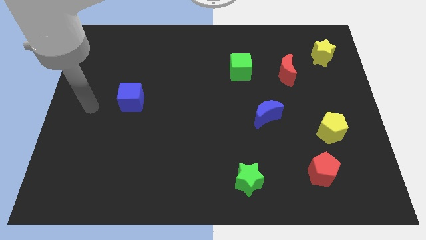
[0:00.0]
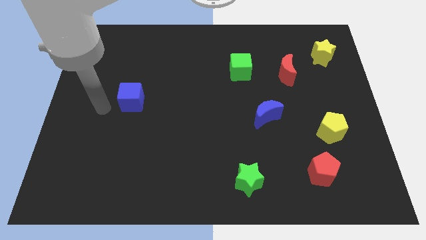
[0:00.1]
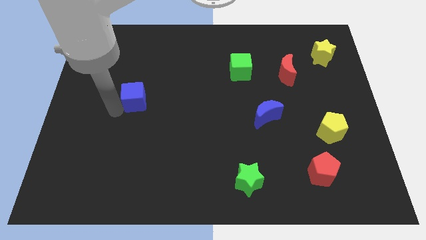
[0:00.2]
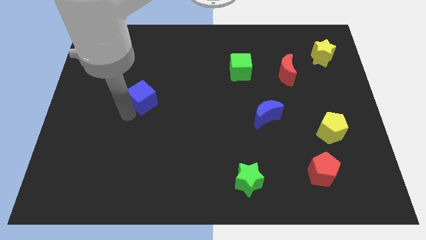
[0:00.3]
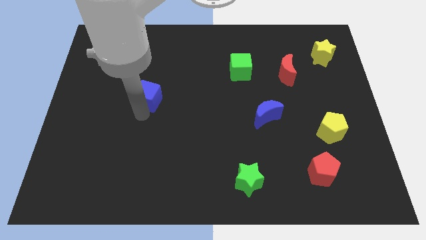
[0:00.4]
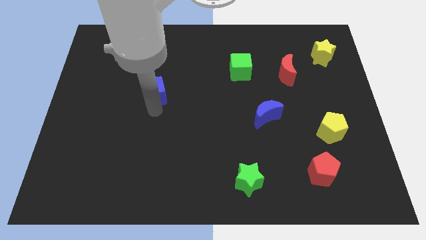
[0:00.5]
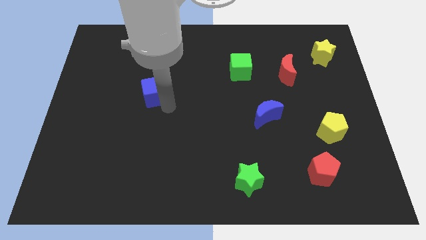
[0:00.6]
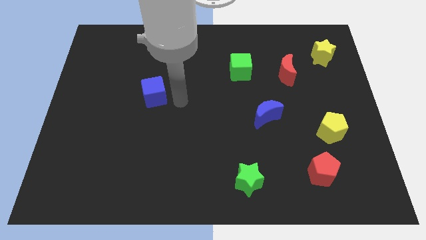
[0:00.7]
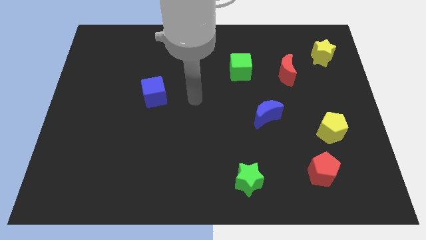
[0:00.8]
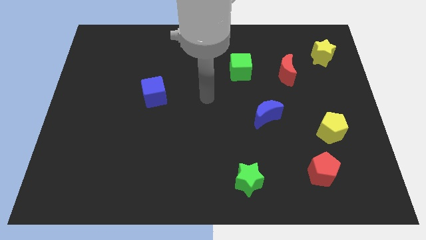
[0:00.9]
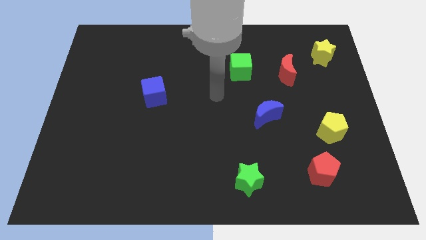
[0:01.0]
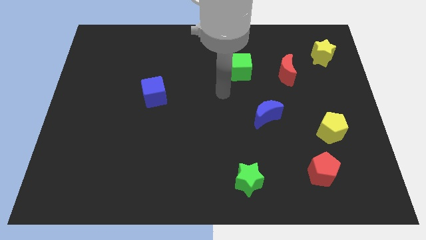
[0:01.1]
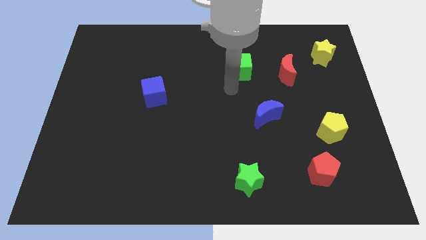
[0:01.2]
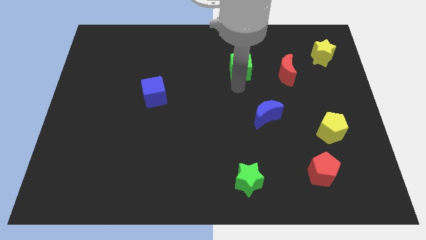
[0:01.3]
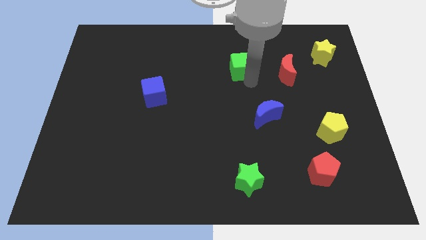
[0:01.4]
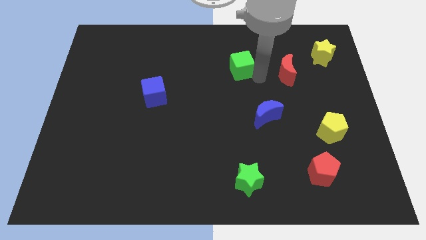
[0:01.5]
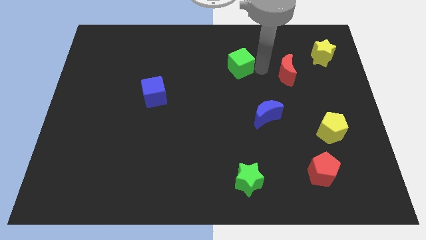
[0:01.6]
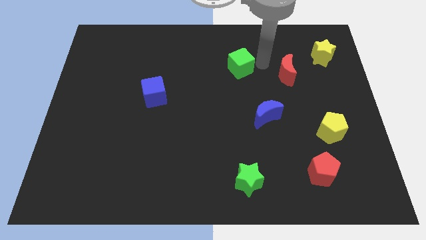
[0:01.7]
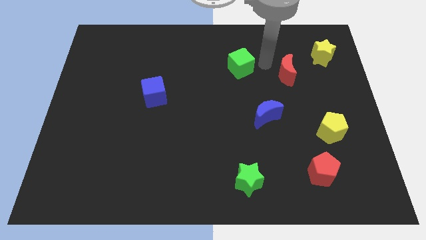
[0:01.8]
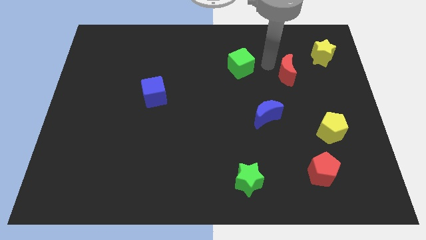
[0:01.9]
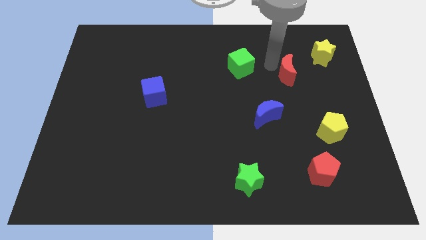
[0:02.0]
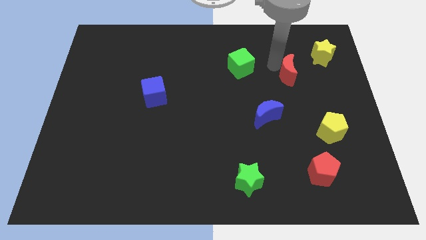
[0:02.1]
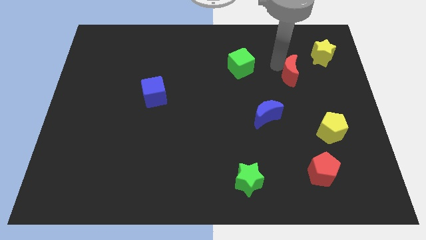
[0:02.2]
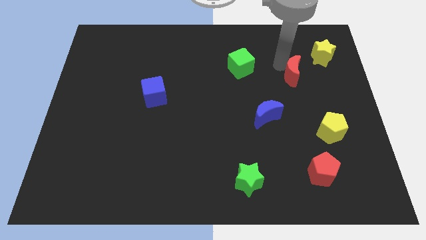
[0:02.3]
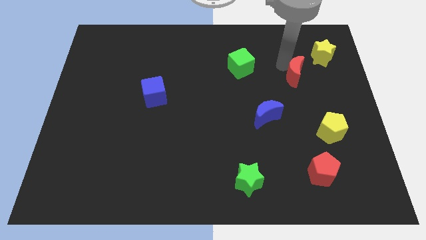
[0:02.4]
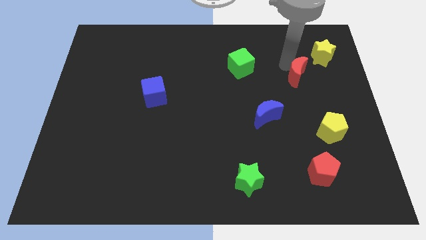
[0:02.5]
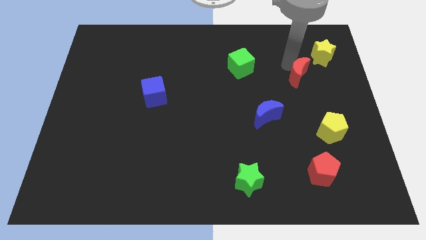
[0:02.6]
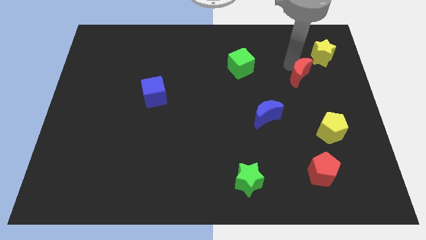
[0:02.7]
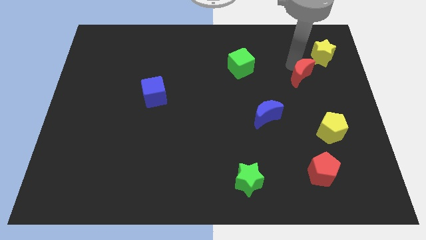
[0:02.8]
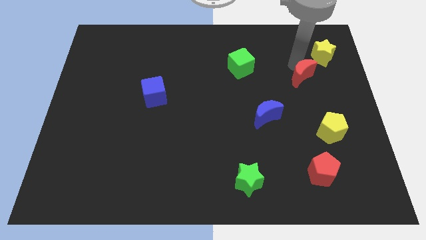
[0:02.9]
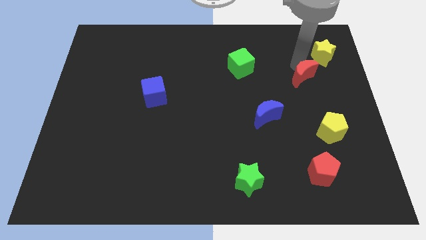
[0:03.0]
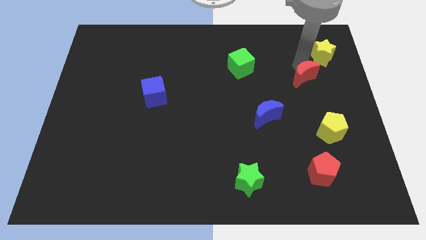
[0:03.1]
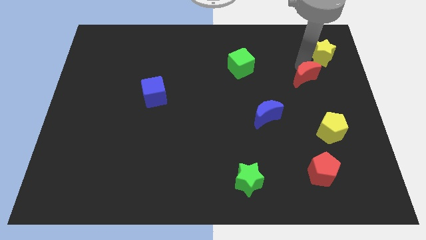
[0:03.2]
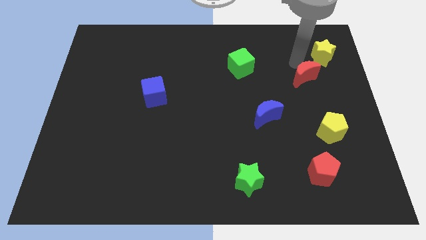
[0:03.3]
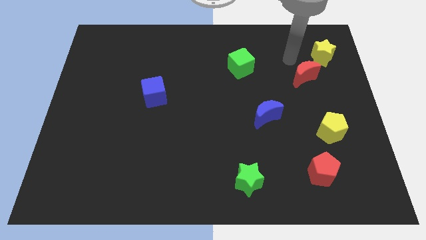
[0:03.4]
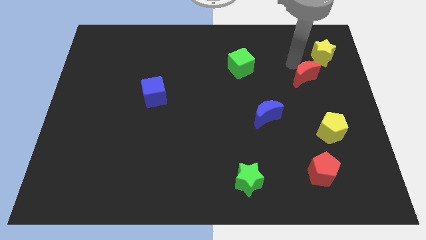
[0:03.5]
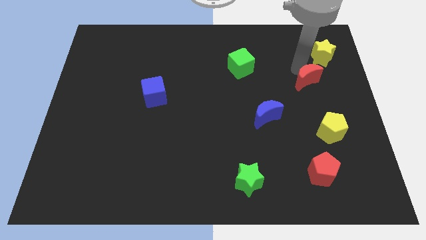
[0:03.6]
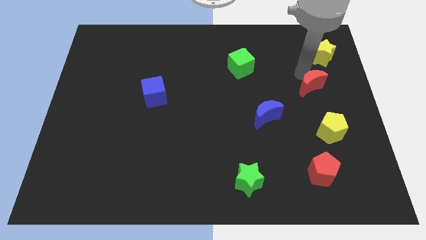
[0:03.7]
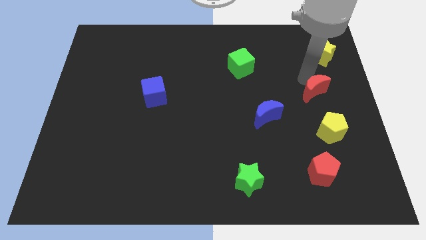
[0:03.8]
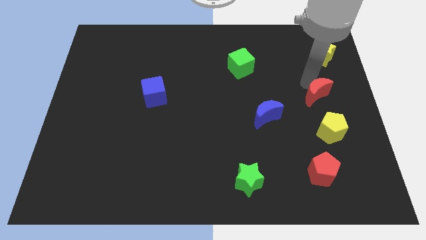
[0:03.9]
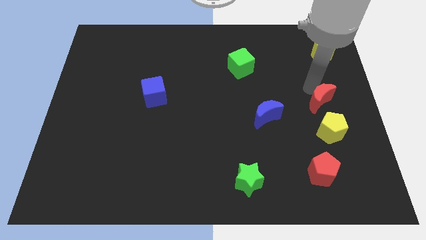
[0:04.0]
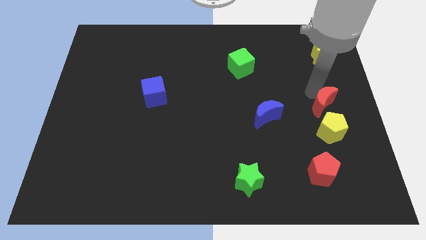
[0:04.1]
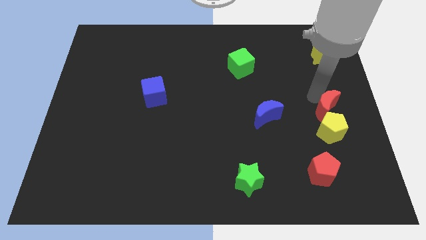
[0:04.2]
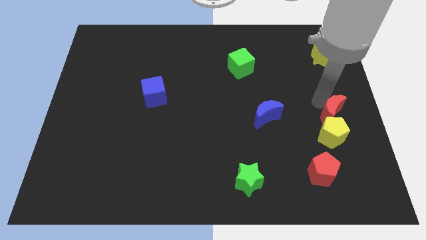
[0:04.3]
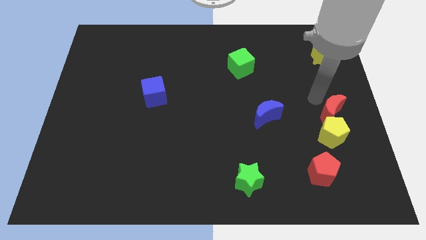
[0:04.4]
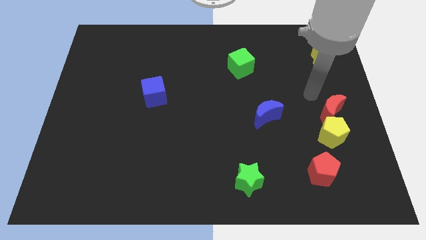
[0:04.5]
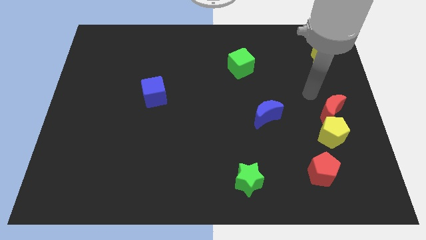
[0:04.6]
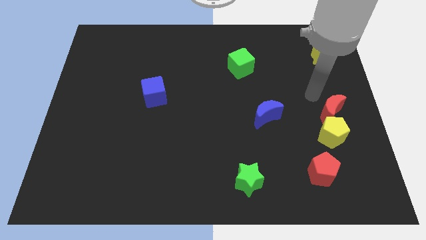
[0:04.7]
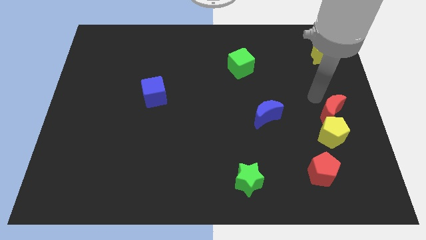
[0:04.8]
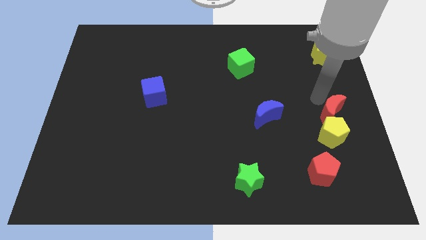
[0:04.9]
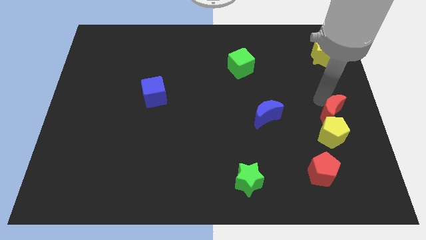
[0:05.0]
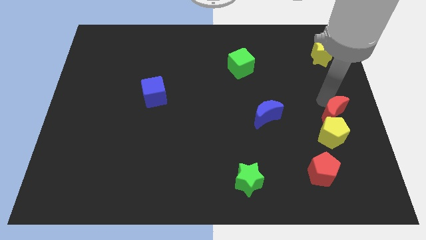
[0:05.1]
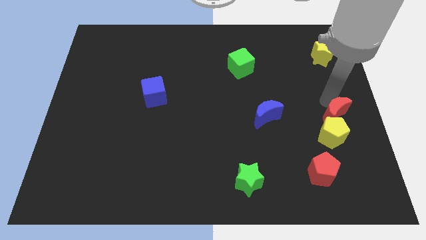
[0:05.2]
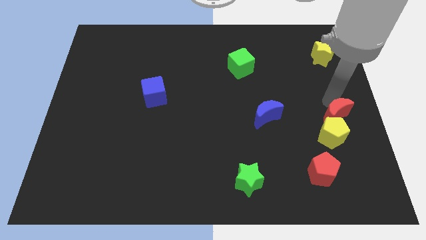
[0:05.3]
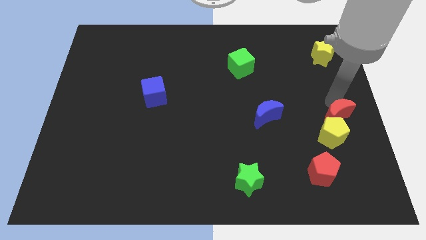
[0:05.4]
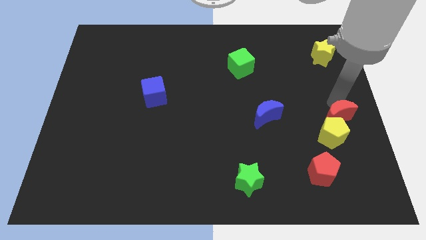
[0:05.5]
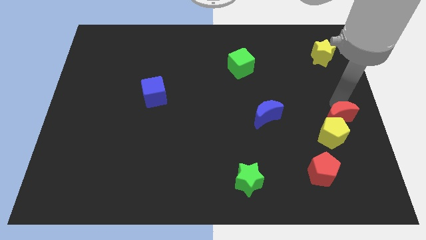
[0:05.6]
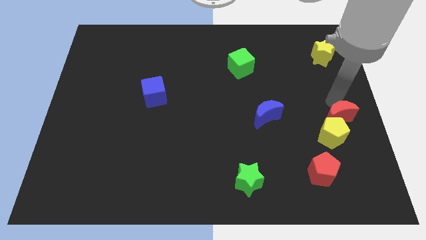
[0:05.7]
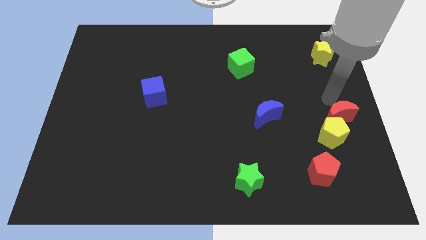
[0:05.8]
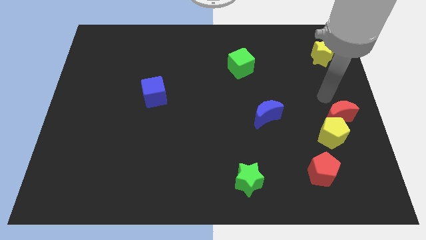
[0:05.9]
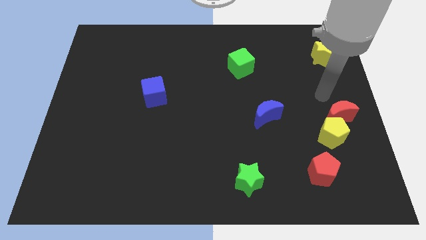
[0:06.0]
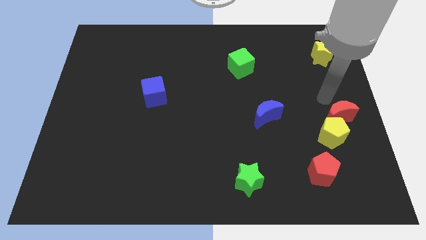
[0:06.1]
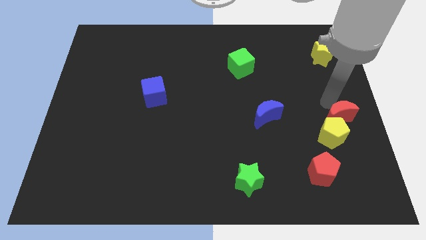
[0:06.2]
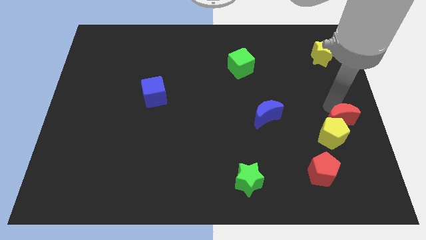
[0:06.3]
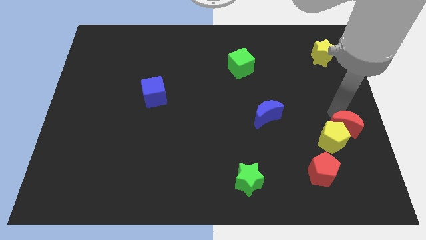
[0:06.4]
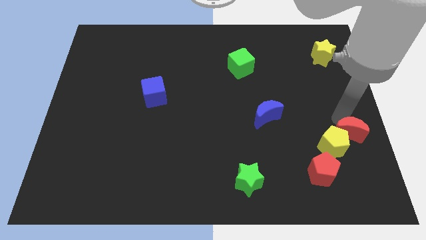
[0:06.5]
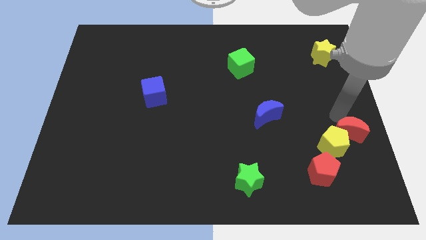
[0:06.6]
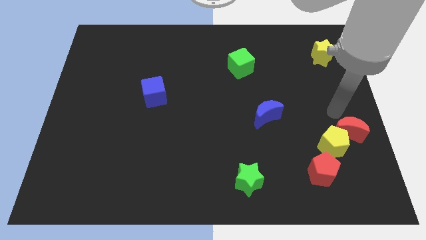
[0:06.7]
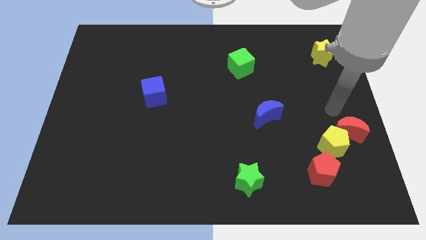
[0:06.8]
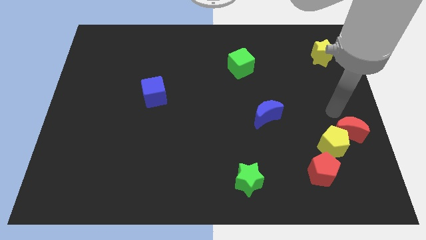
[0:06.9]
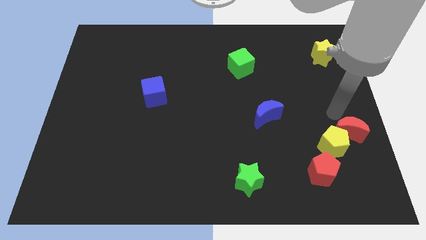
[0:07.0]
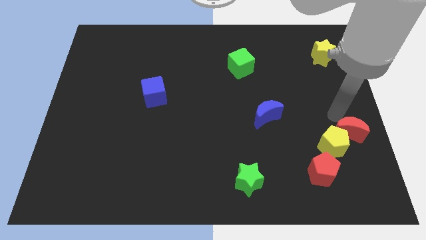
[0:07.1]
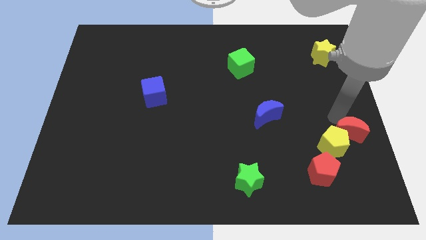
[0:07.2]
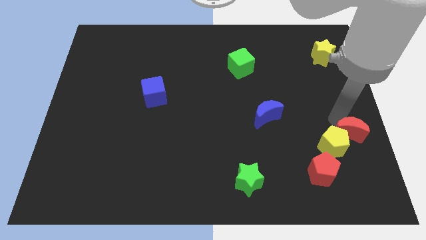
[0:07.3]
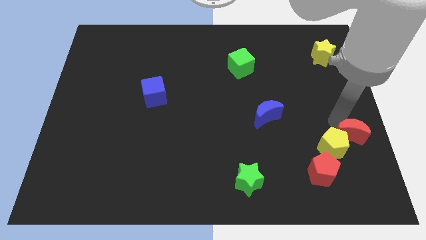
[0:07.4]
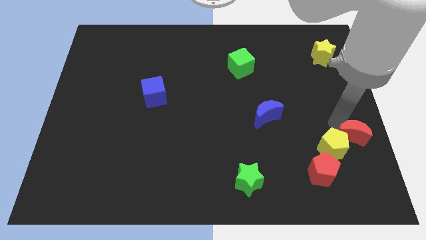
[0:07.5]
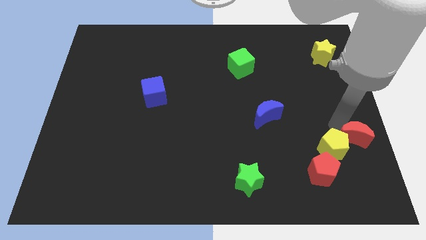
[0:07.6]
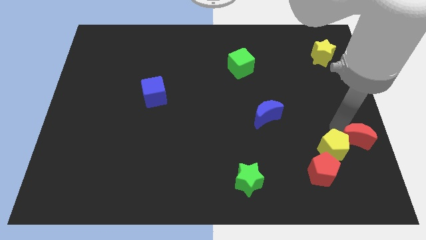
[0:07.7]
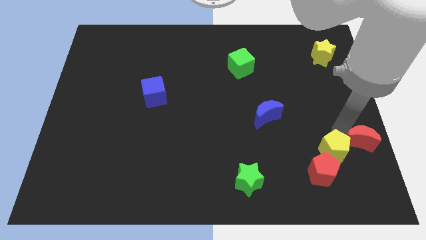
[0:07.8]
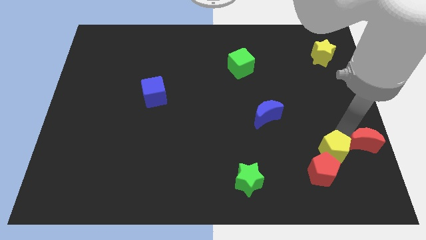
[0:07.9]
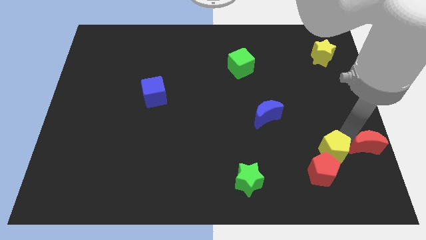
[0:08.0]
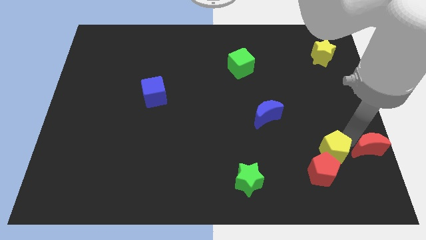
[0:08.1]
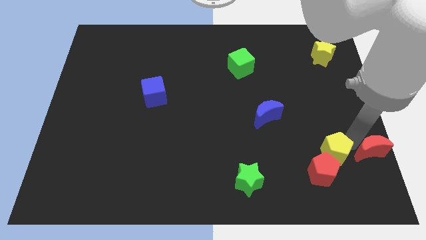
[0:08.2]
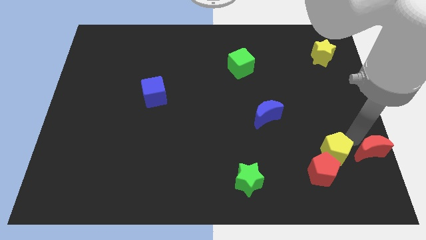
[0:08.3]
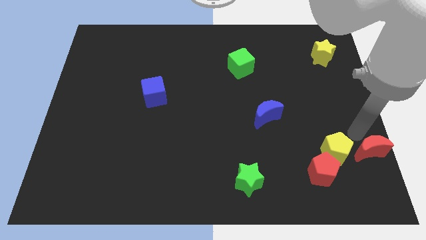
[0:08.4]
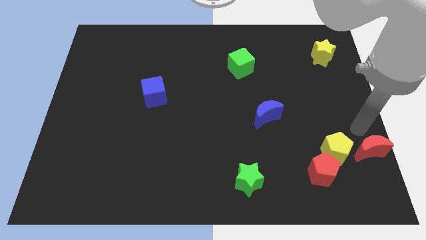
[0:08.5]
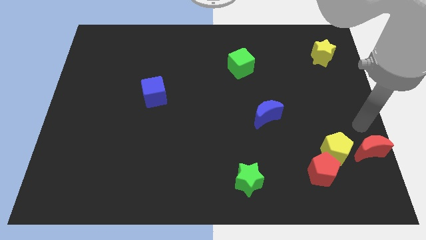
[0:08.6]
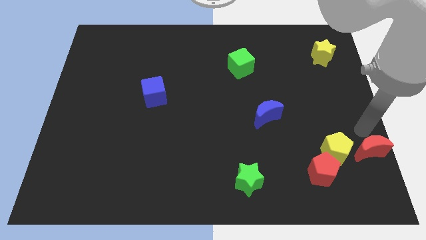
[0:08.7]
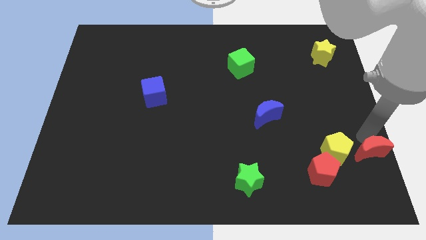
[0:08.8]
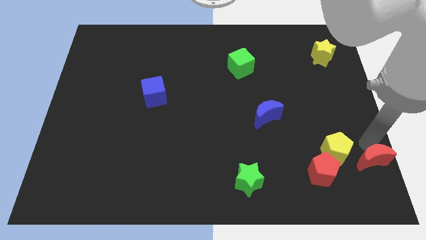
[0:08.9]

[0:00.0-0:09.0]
move the red moon to the bottom right of the board
